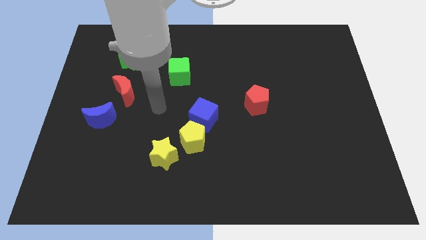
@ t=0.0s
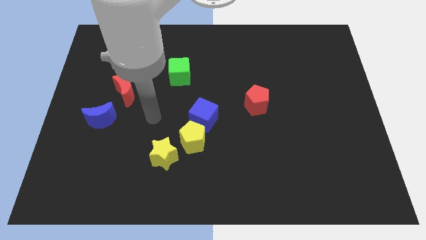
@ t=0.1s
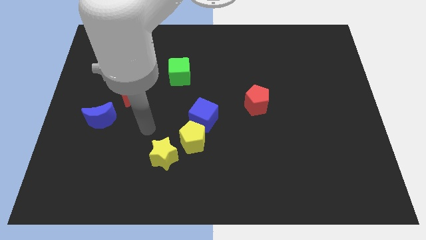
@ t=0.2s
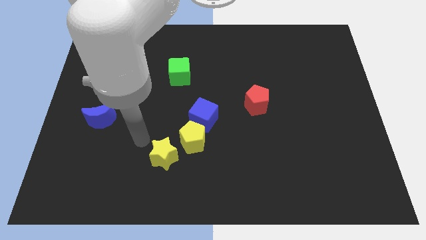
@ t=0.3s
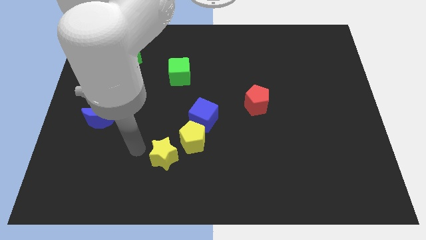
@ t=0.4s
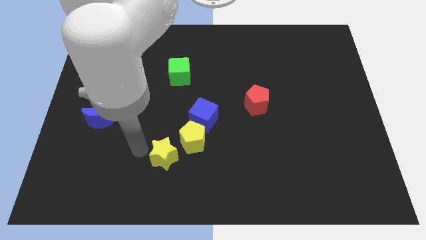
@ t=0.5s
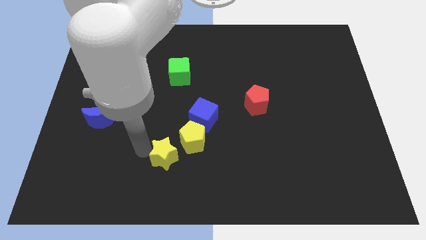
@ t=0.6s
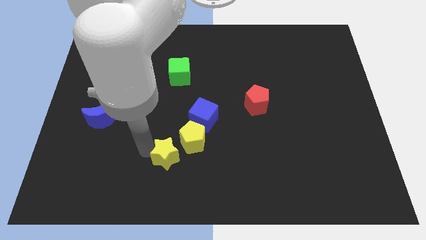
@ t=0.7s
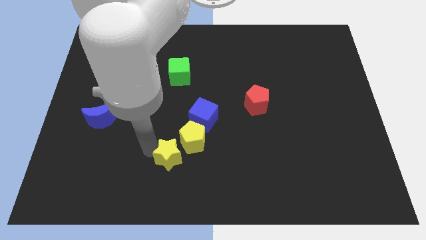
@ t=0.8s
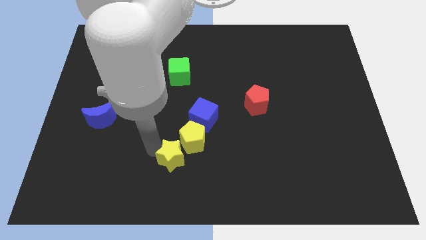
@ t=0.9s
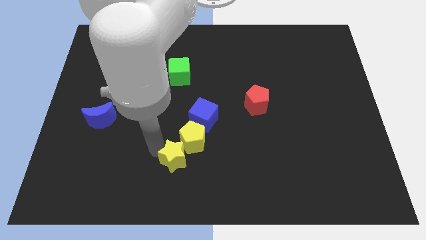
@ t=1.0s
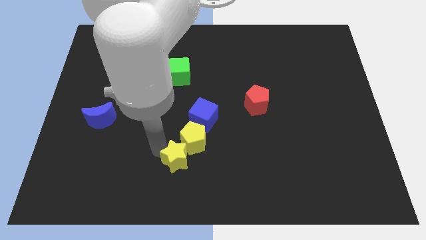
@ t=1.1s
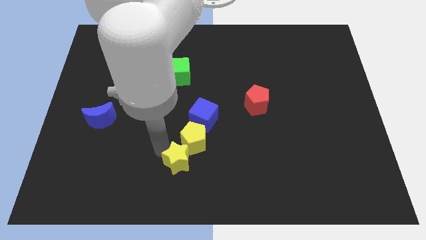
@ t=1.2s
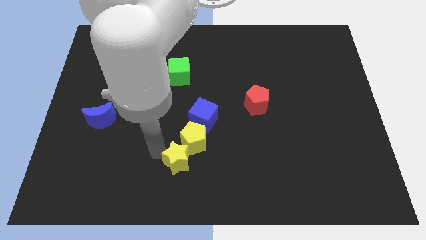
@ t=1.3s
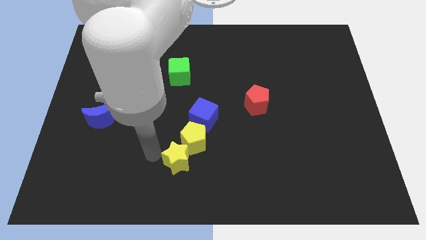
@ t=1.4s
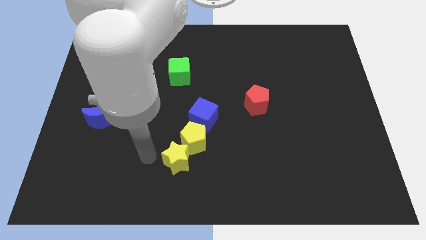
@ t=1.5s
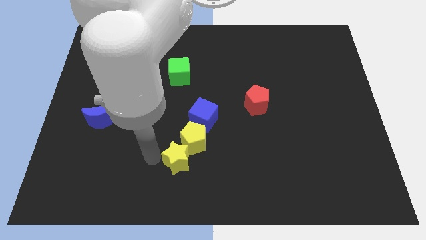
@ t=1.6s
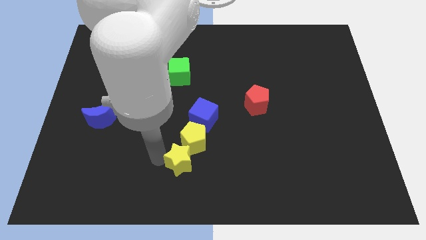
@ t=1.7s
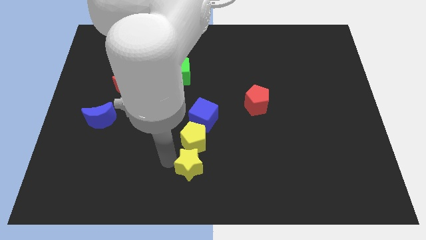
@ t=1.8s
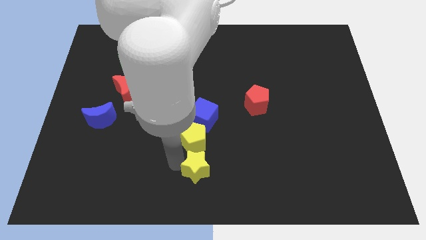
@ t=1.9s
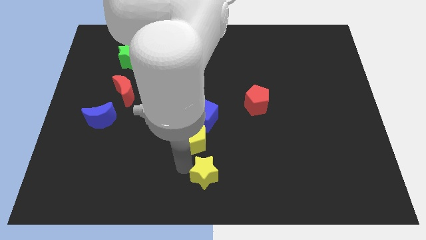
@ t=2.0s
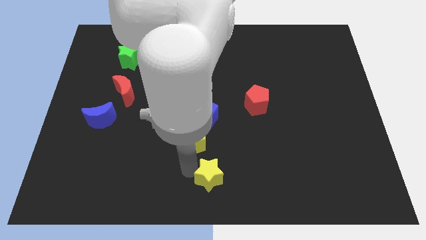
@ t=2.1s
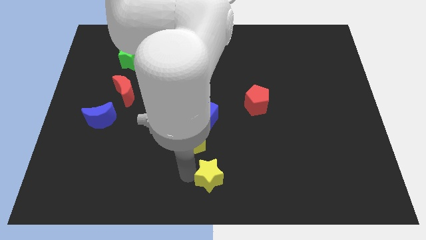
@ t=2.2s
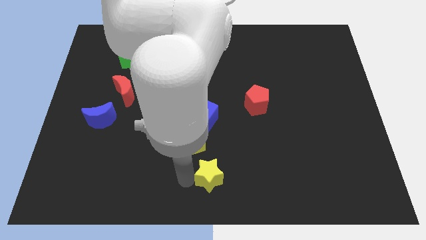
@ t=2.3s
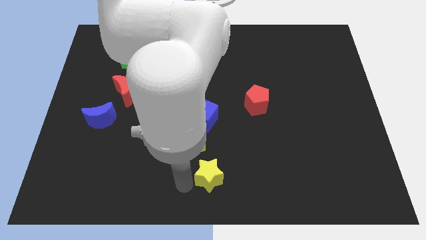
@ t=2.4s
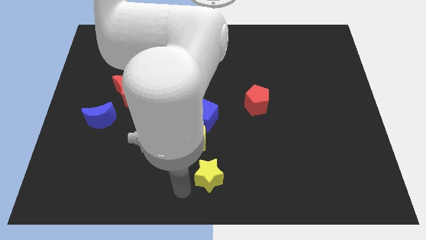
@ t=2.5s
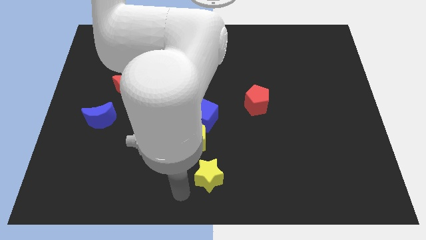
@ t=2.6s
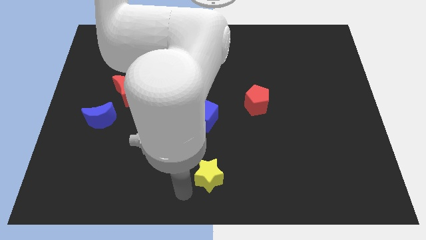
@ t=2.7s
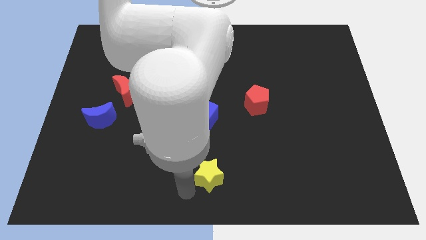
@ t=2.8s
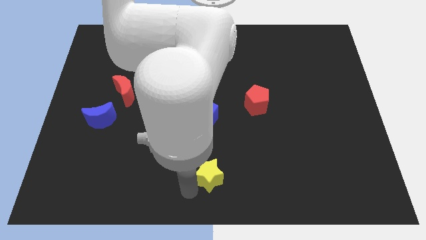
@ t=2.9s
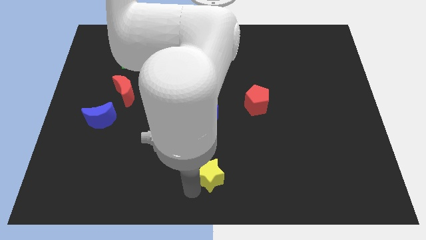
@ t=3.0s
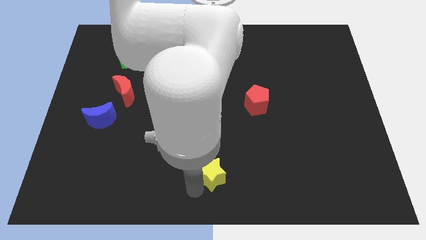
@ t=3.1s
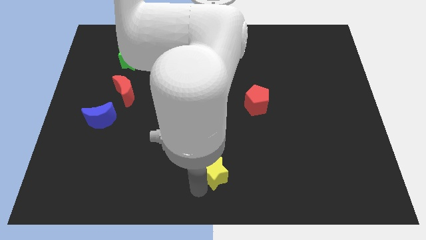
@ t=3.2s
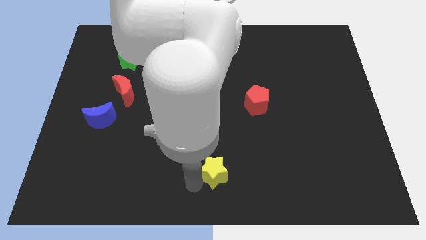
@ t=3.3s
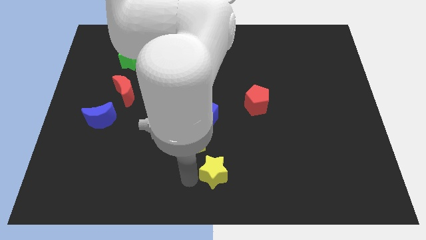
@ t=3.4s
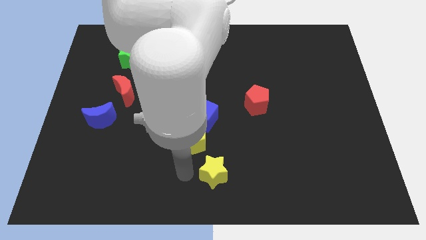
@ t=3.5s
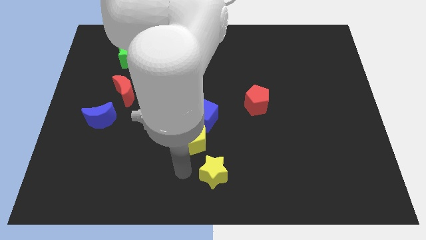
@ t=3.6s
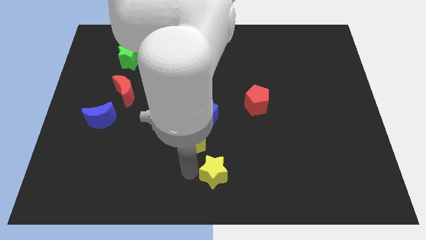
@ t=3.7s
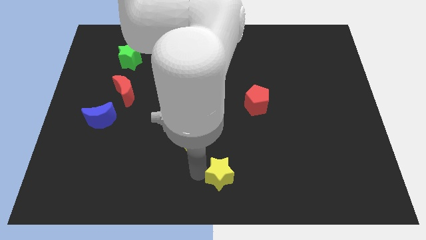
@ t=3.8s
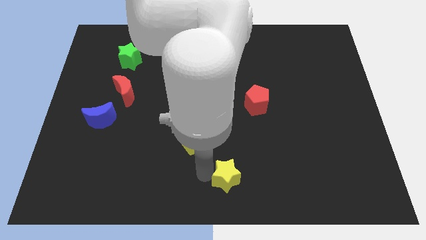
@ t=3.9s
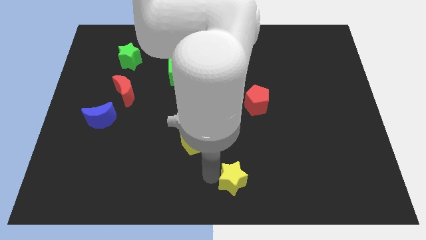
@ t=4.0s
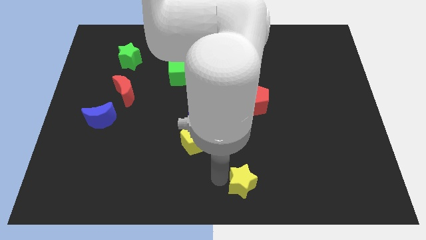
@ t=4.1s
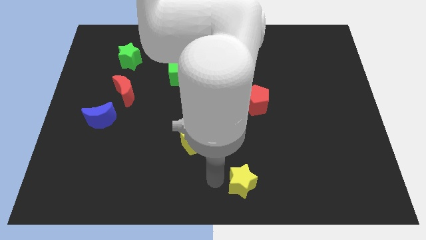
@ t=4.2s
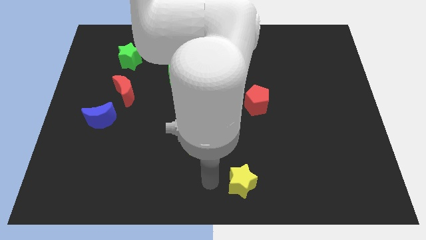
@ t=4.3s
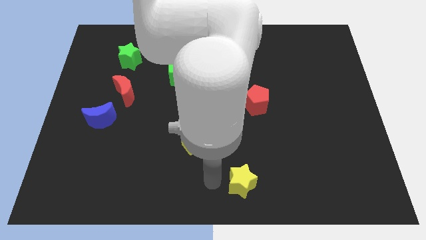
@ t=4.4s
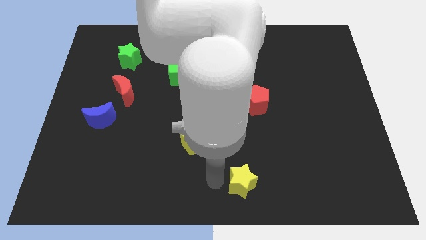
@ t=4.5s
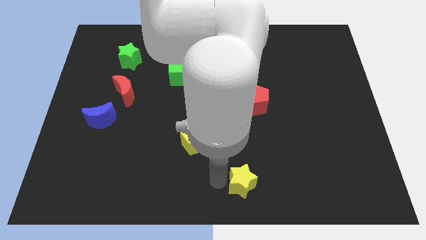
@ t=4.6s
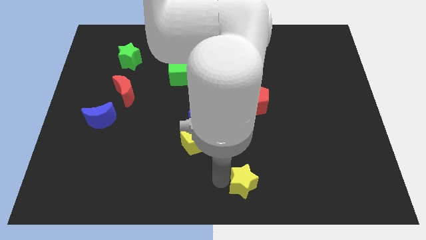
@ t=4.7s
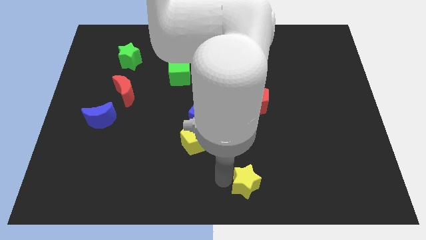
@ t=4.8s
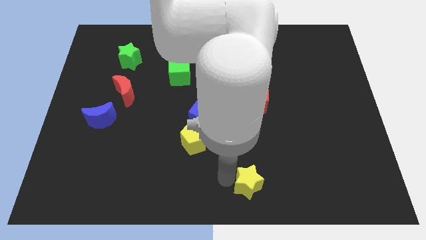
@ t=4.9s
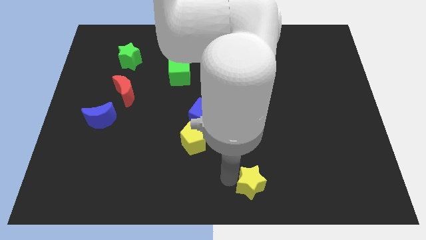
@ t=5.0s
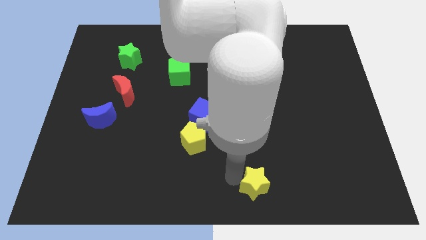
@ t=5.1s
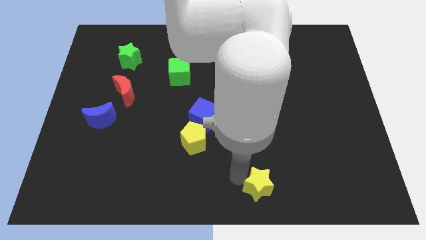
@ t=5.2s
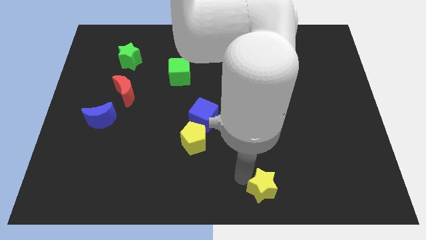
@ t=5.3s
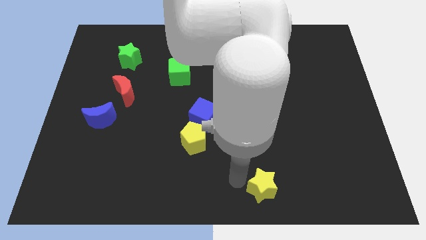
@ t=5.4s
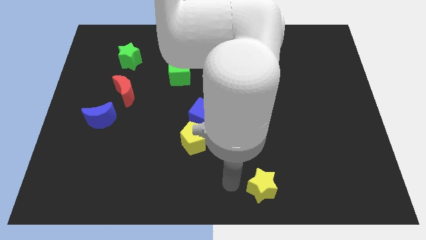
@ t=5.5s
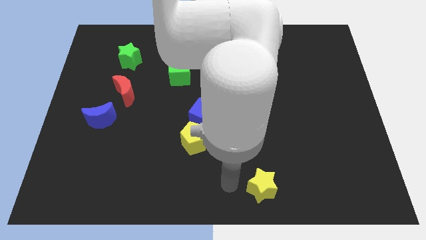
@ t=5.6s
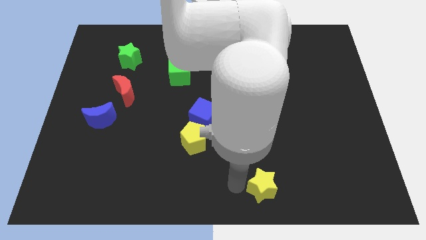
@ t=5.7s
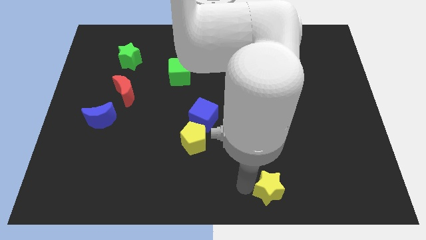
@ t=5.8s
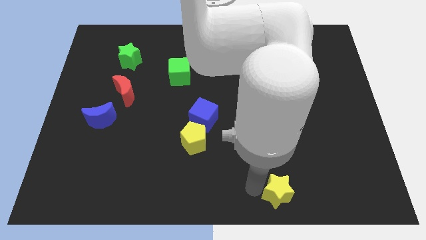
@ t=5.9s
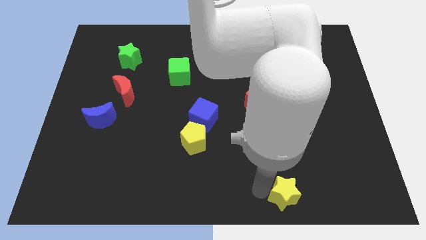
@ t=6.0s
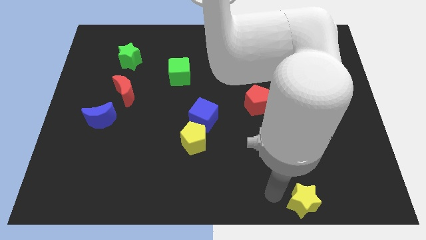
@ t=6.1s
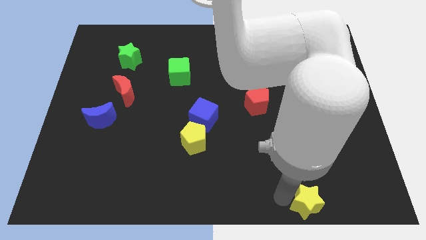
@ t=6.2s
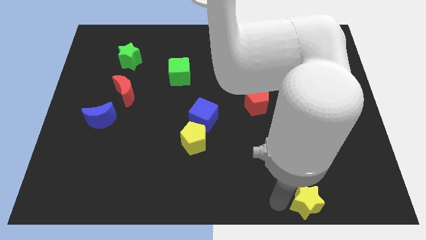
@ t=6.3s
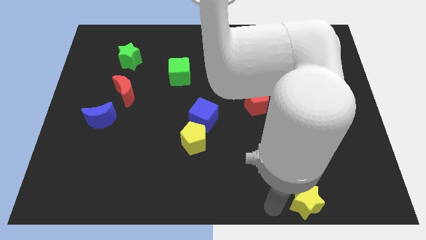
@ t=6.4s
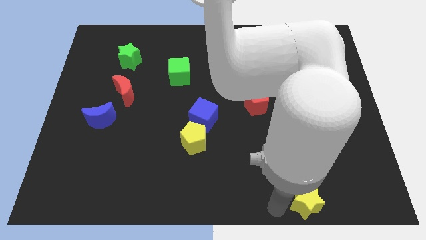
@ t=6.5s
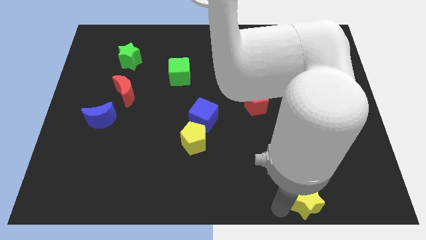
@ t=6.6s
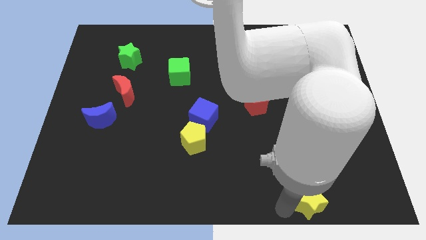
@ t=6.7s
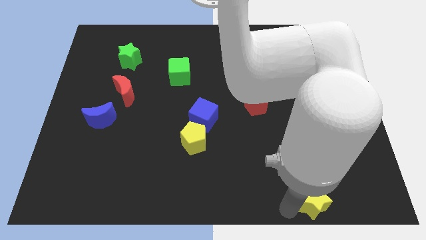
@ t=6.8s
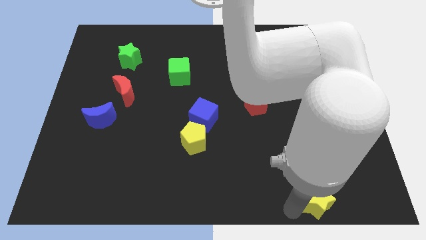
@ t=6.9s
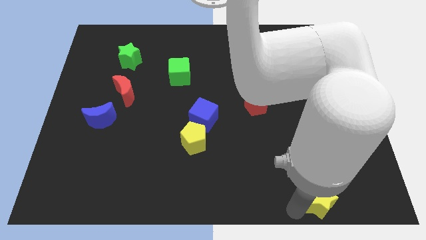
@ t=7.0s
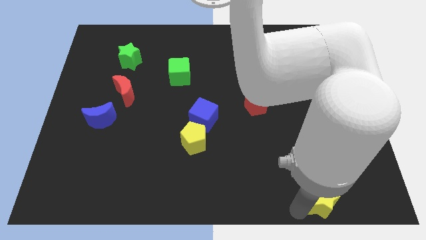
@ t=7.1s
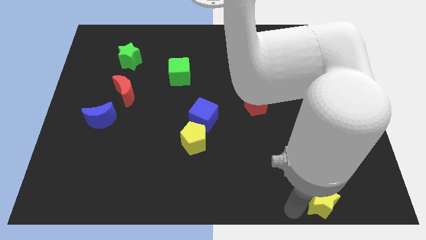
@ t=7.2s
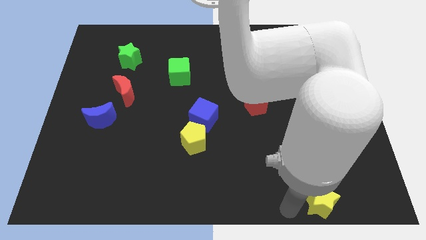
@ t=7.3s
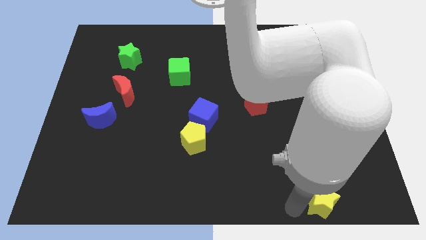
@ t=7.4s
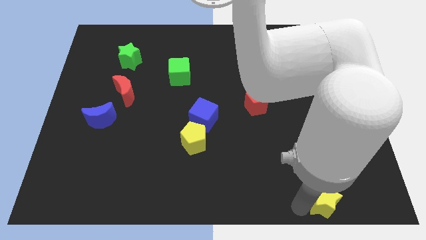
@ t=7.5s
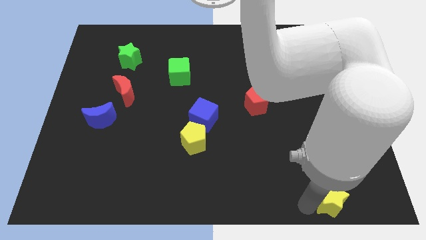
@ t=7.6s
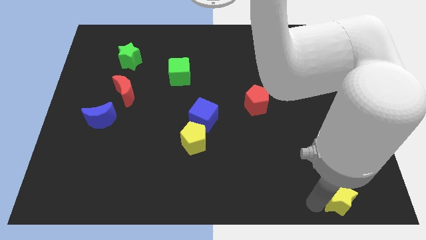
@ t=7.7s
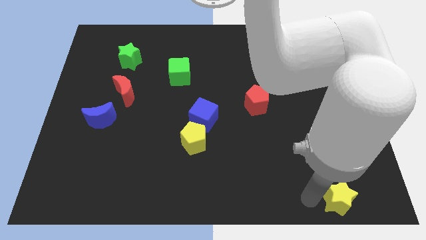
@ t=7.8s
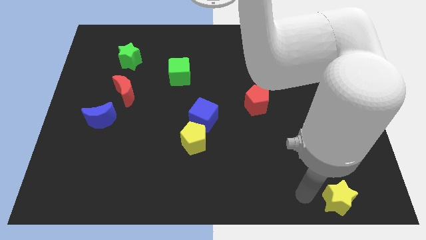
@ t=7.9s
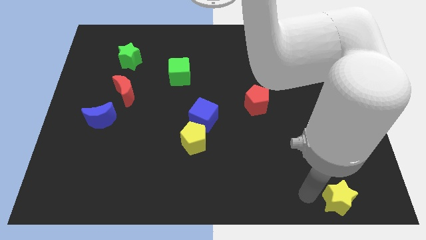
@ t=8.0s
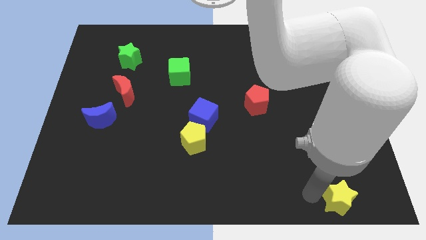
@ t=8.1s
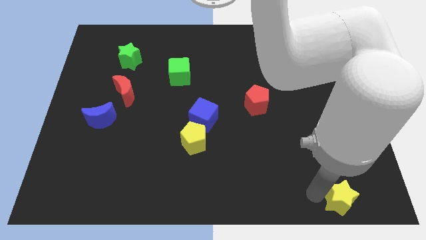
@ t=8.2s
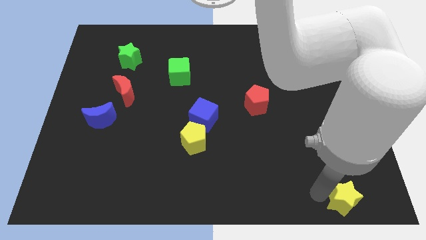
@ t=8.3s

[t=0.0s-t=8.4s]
push the yellow star to the bottom right of the board
